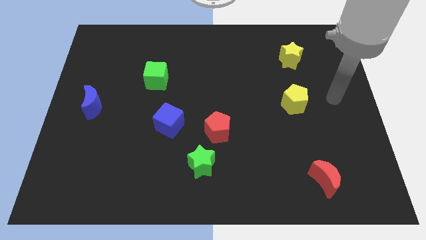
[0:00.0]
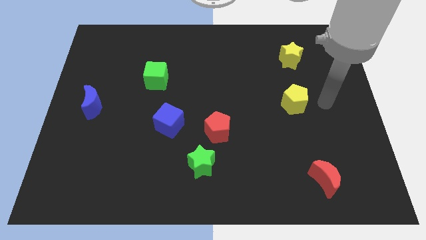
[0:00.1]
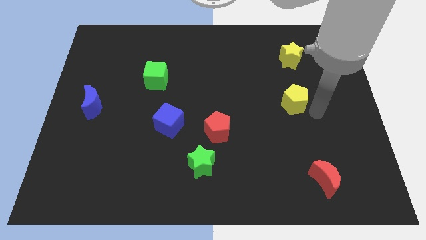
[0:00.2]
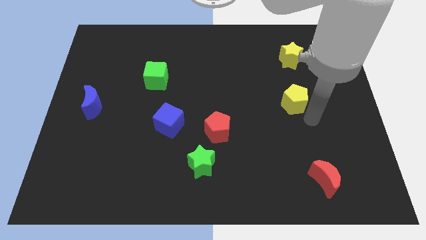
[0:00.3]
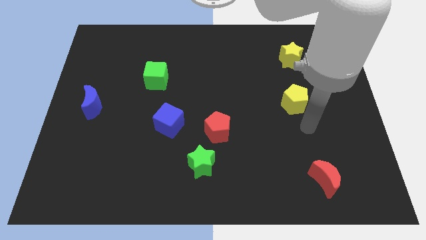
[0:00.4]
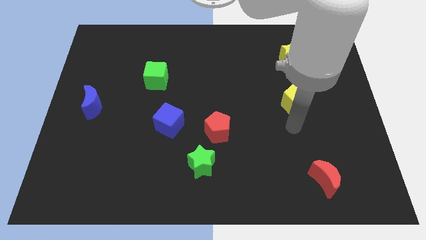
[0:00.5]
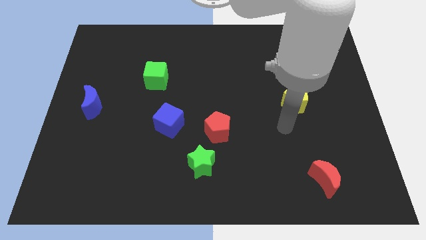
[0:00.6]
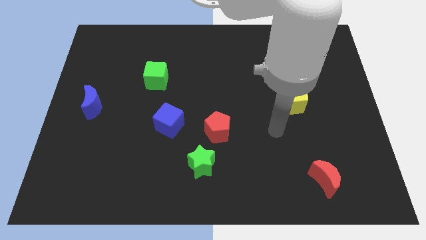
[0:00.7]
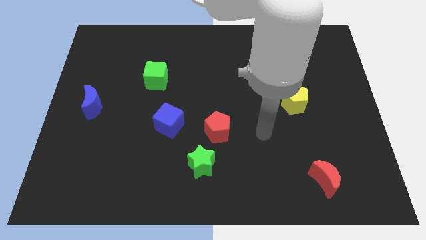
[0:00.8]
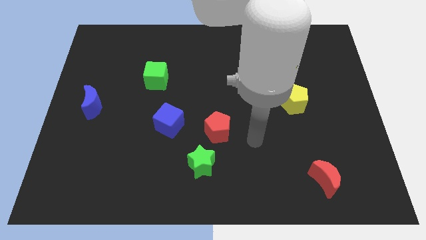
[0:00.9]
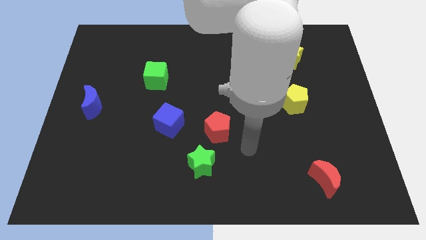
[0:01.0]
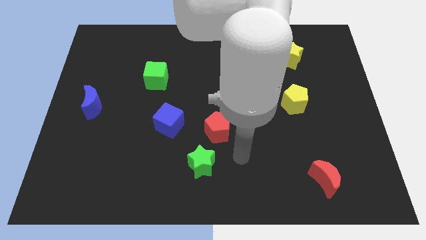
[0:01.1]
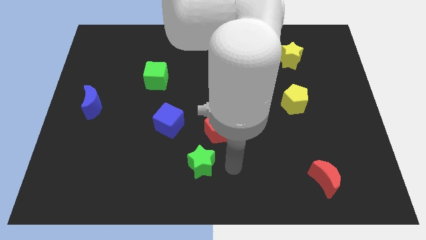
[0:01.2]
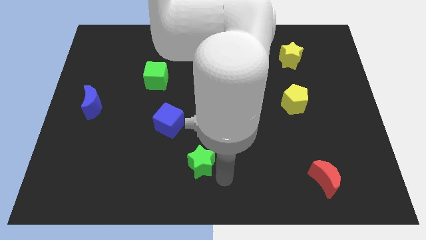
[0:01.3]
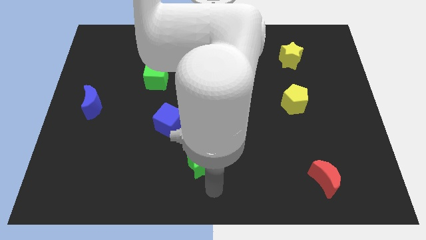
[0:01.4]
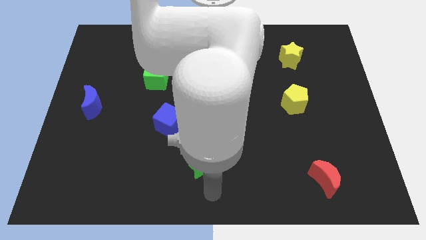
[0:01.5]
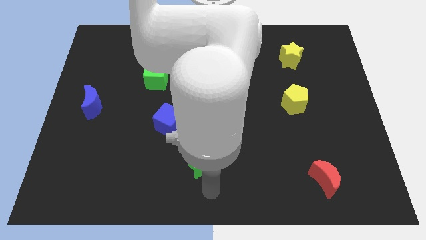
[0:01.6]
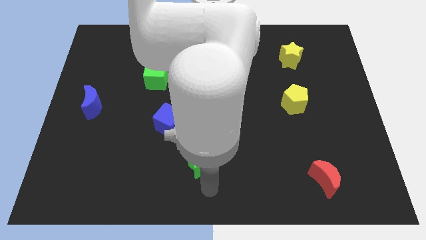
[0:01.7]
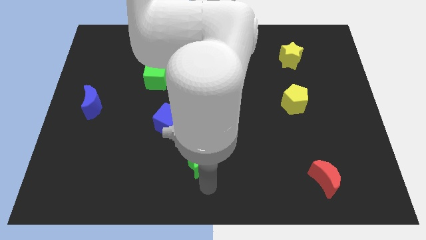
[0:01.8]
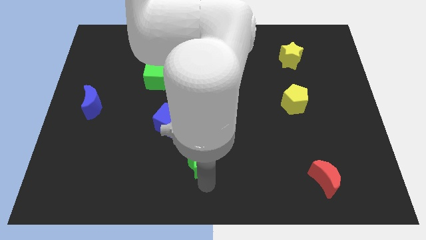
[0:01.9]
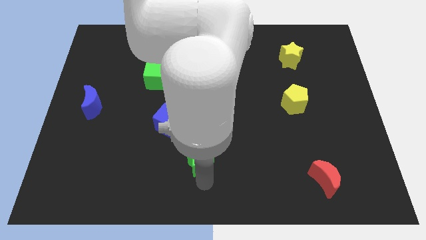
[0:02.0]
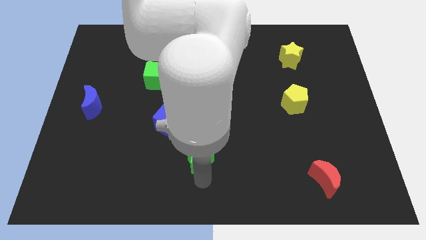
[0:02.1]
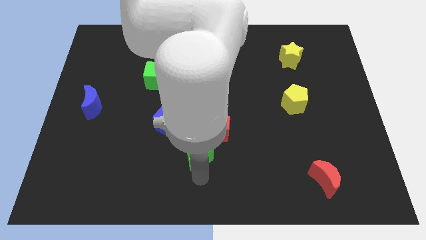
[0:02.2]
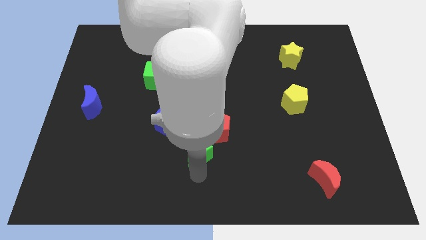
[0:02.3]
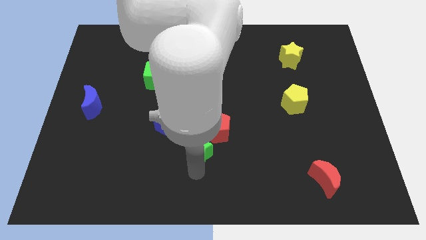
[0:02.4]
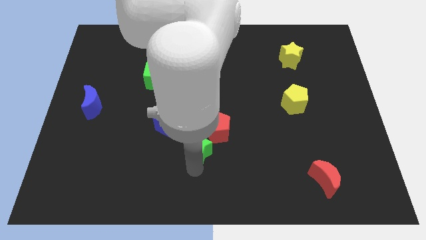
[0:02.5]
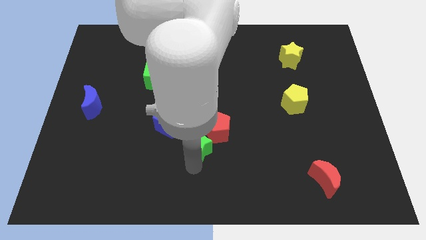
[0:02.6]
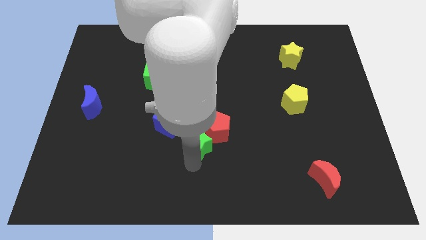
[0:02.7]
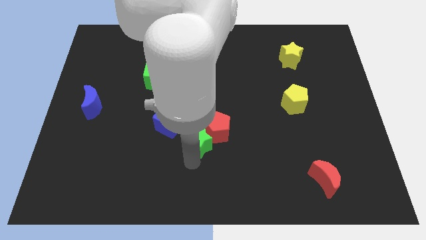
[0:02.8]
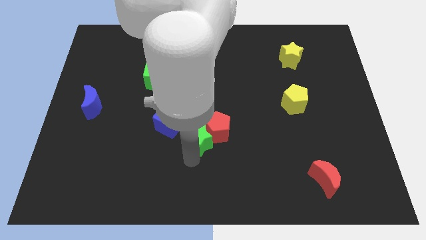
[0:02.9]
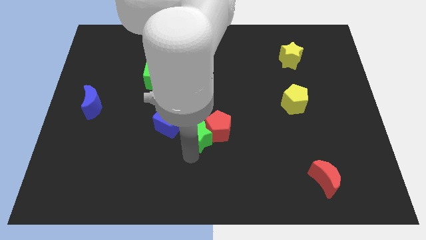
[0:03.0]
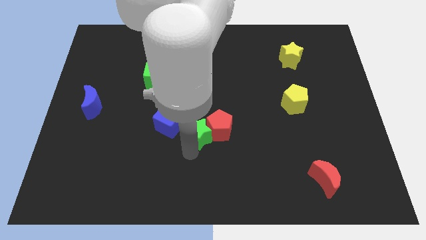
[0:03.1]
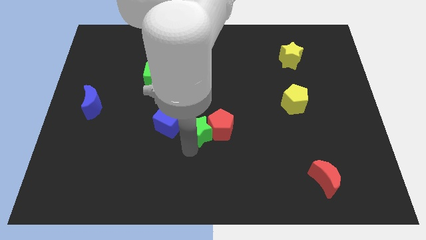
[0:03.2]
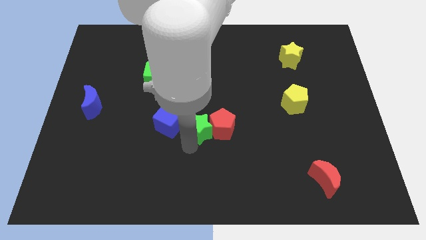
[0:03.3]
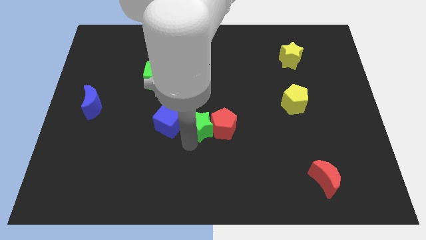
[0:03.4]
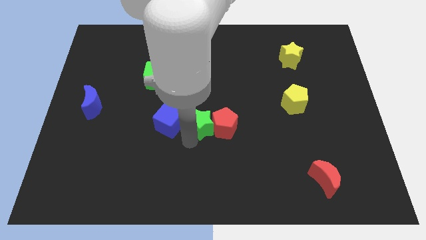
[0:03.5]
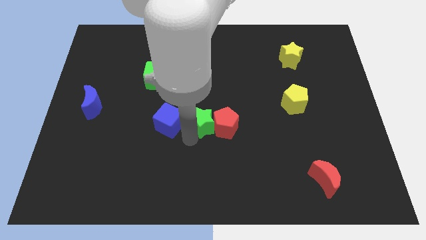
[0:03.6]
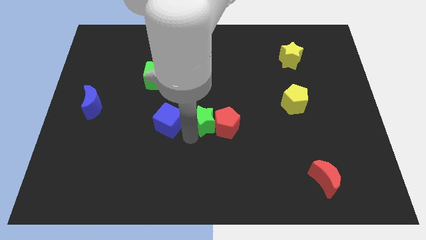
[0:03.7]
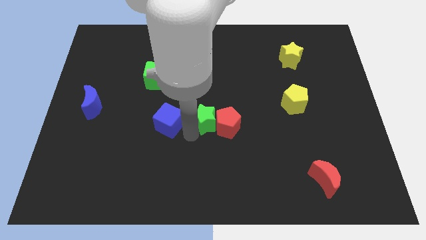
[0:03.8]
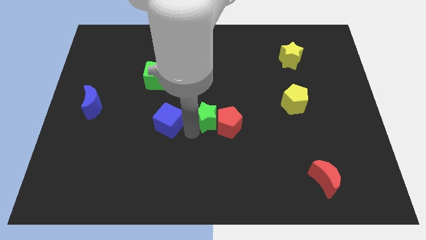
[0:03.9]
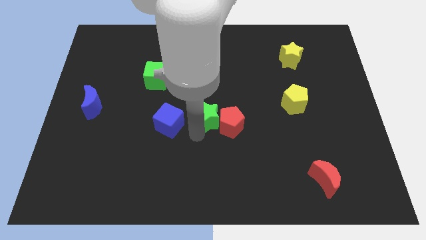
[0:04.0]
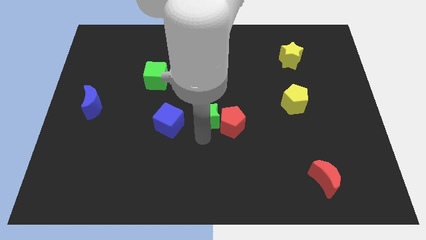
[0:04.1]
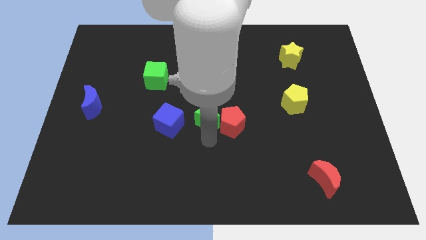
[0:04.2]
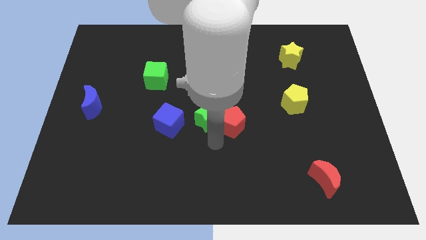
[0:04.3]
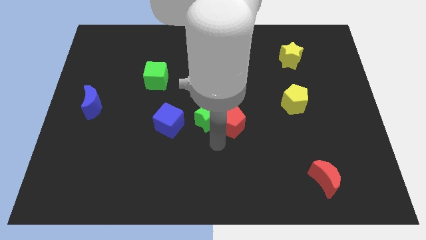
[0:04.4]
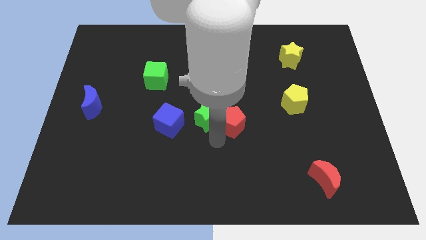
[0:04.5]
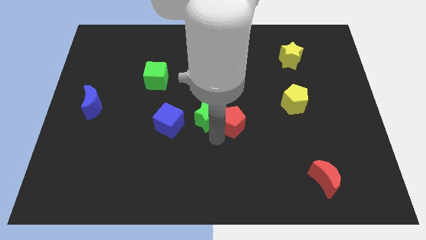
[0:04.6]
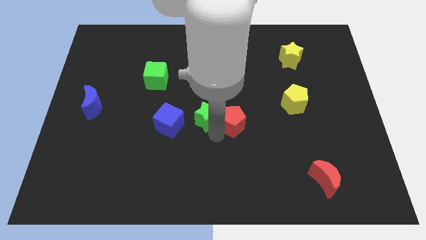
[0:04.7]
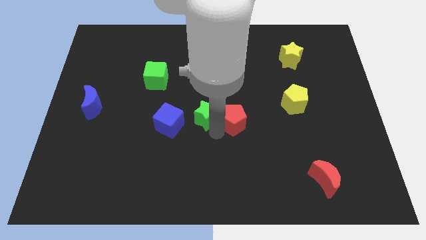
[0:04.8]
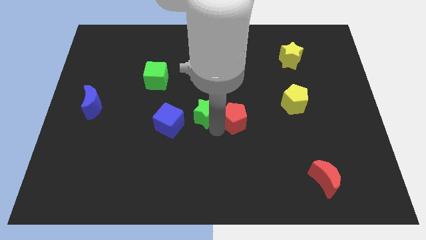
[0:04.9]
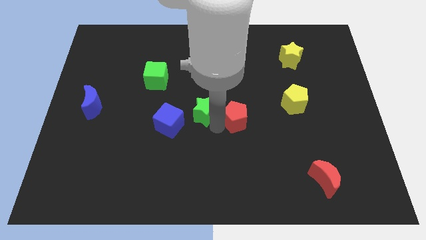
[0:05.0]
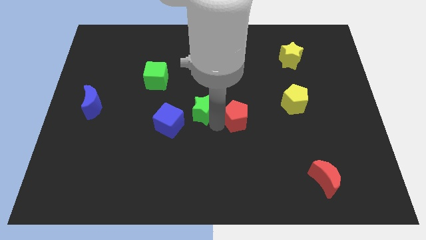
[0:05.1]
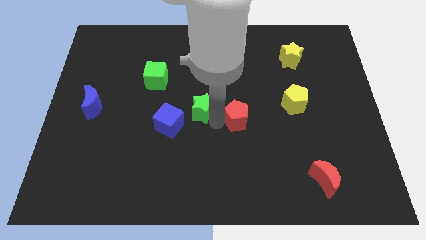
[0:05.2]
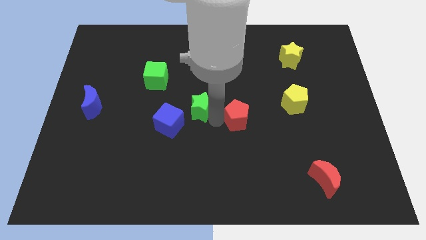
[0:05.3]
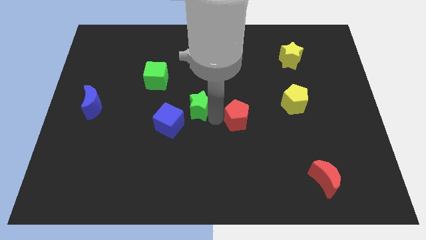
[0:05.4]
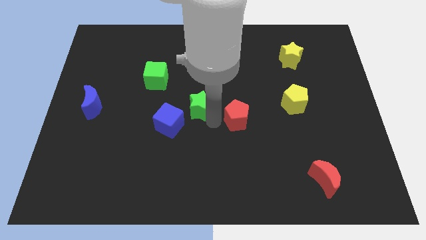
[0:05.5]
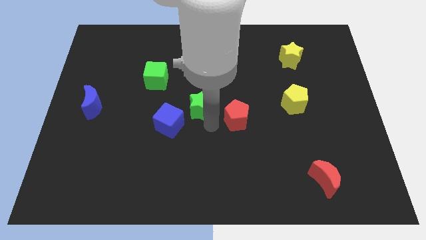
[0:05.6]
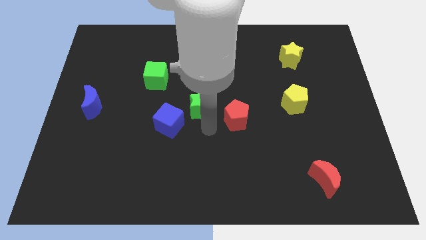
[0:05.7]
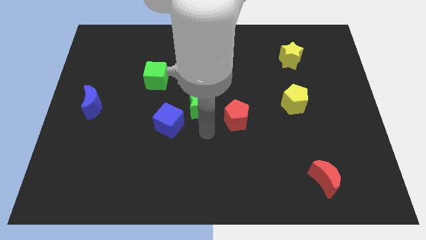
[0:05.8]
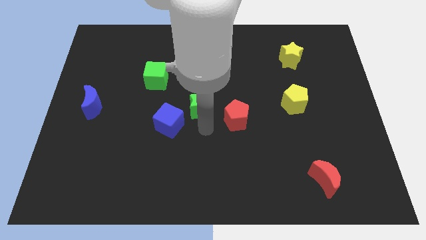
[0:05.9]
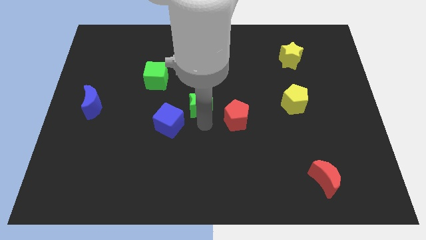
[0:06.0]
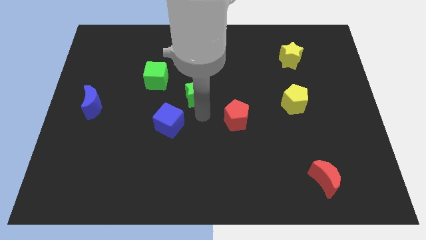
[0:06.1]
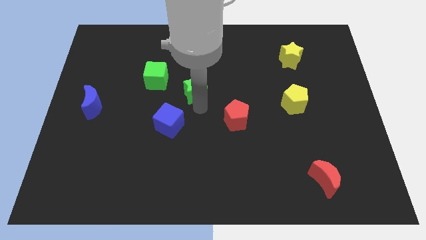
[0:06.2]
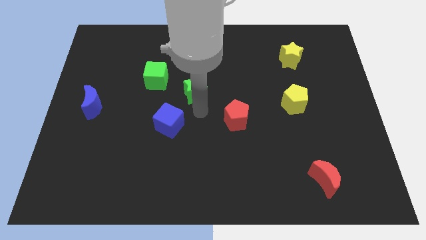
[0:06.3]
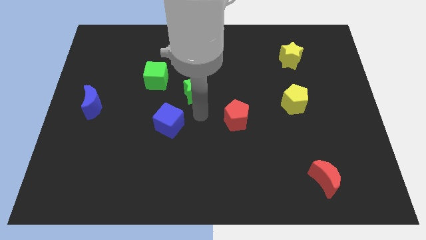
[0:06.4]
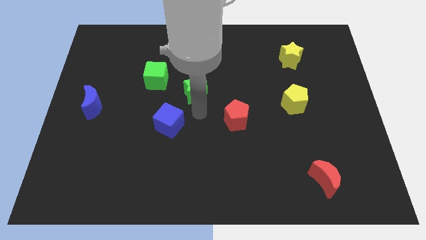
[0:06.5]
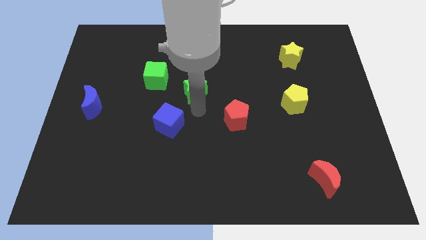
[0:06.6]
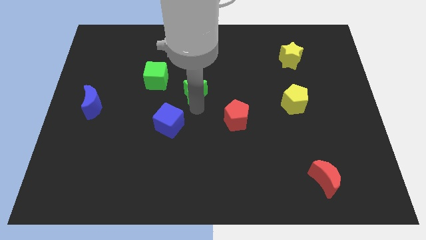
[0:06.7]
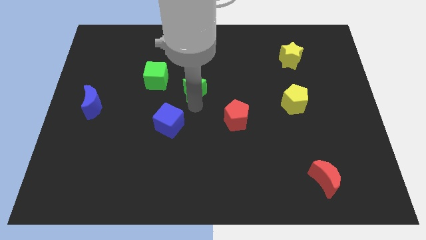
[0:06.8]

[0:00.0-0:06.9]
slide the green star upwards

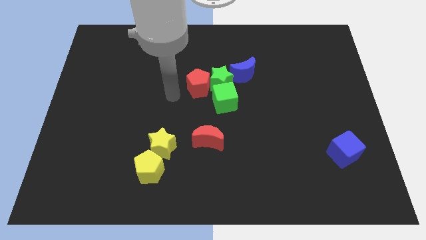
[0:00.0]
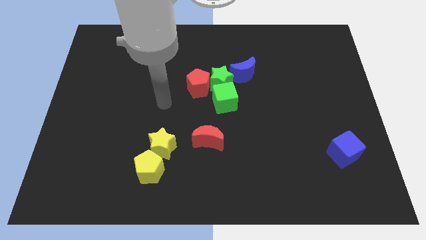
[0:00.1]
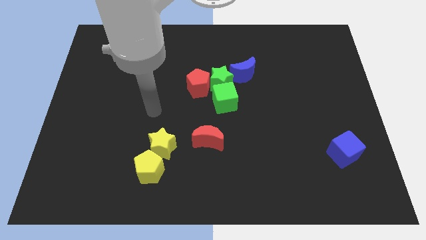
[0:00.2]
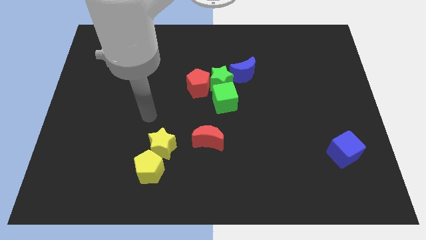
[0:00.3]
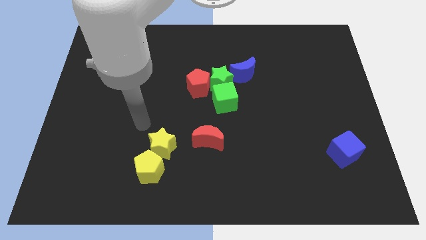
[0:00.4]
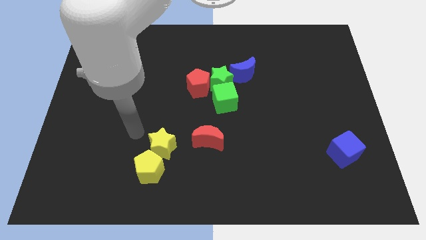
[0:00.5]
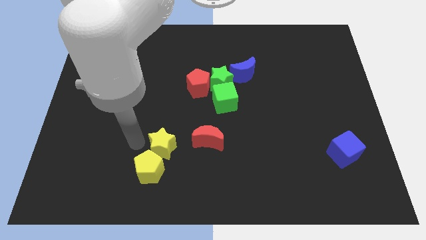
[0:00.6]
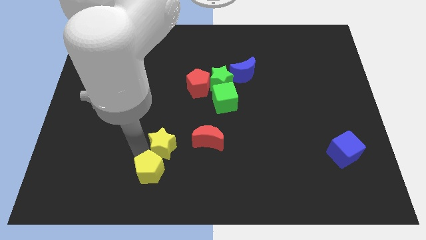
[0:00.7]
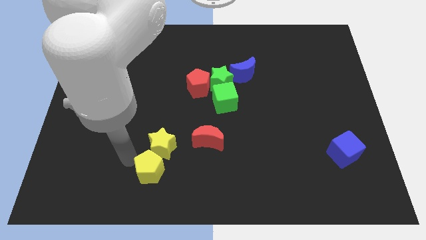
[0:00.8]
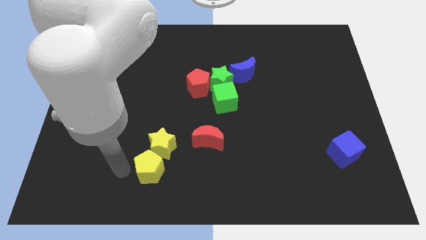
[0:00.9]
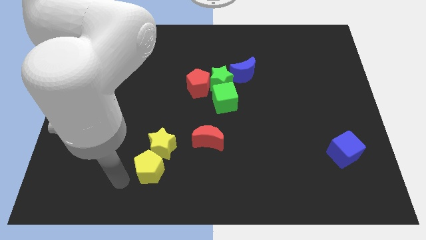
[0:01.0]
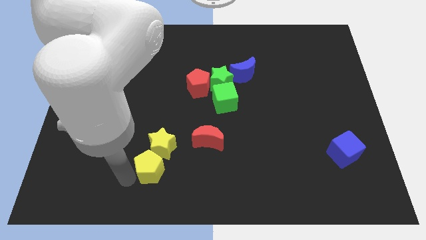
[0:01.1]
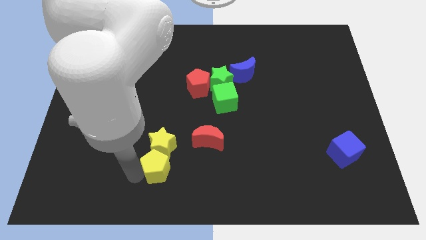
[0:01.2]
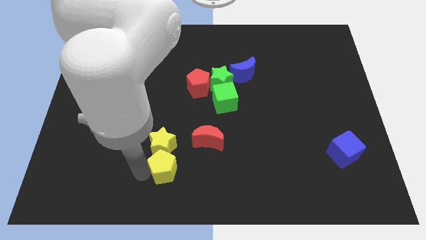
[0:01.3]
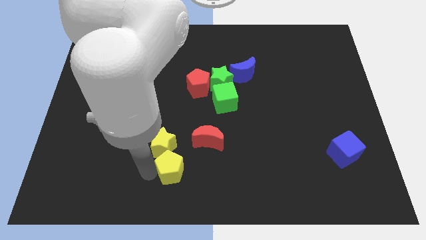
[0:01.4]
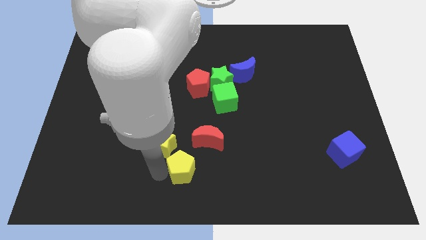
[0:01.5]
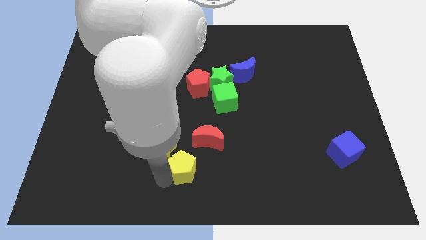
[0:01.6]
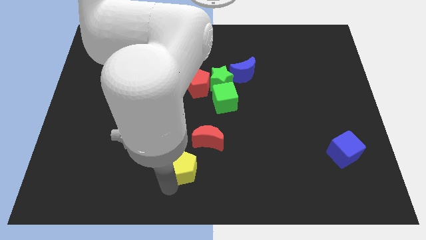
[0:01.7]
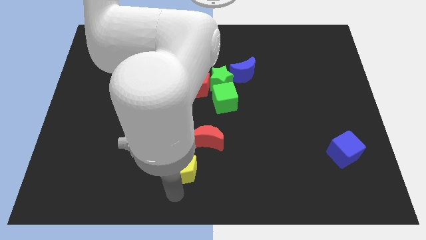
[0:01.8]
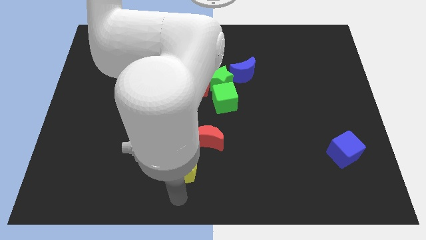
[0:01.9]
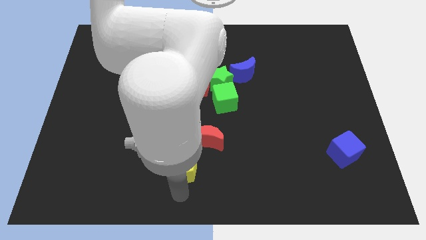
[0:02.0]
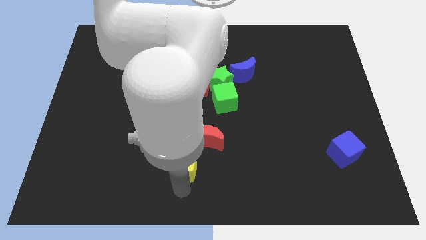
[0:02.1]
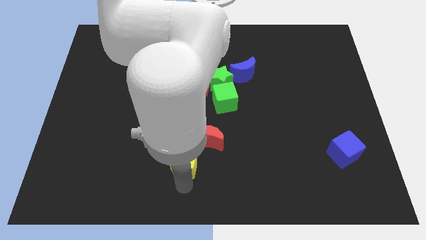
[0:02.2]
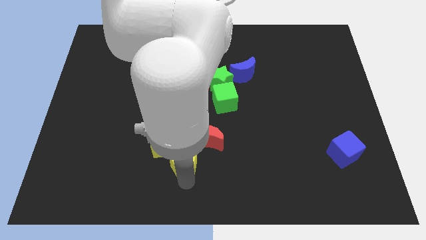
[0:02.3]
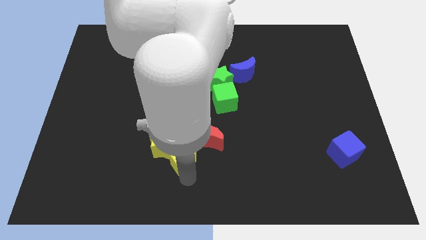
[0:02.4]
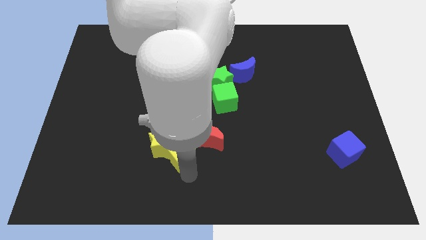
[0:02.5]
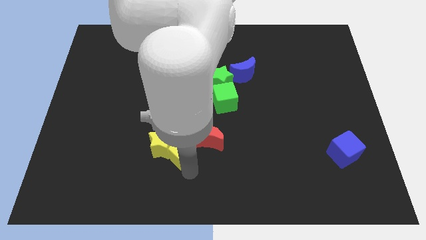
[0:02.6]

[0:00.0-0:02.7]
push the yellow pentagon diagonally upwards and to the right a bit
